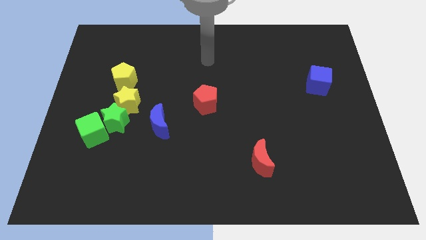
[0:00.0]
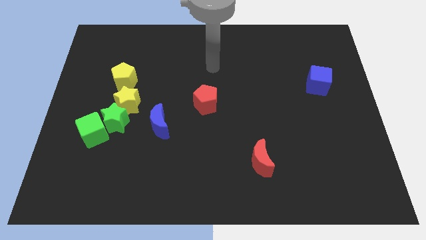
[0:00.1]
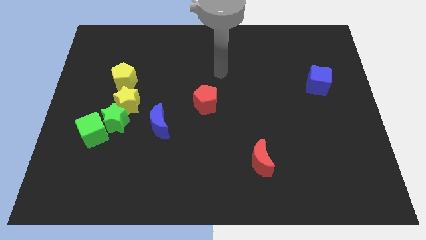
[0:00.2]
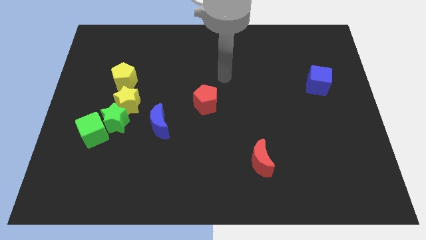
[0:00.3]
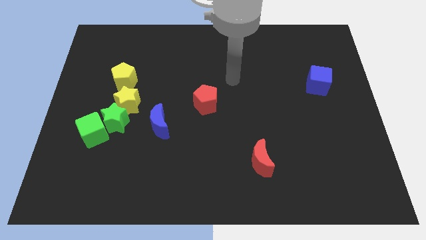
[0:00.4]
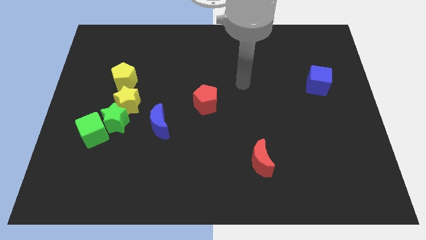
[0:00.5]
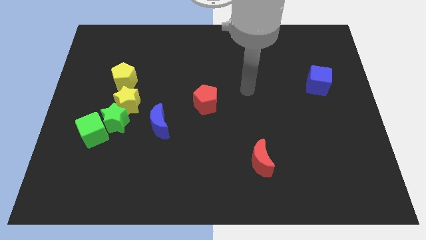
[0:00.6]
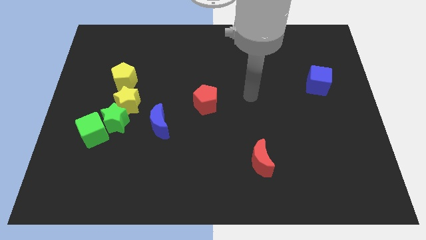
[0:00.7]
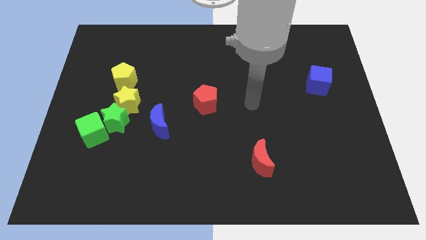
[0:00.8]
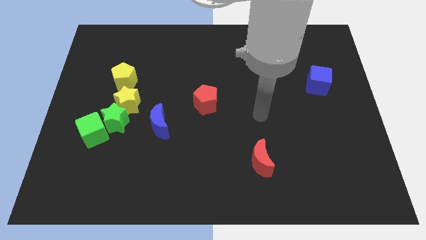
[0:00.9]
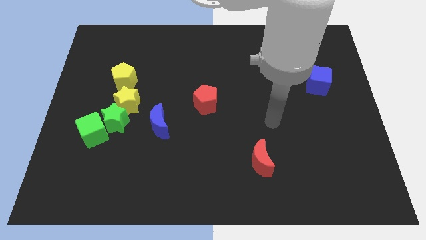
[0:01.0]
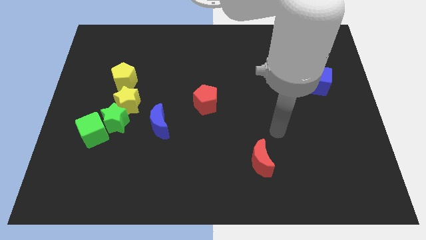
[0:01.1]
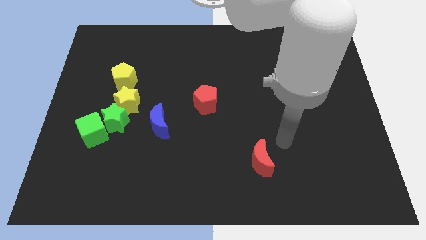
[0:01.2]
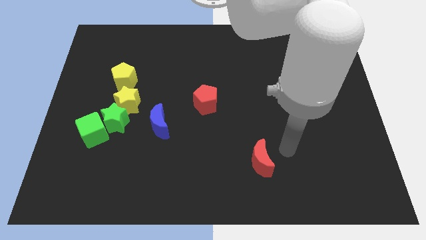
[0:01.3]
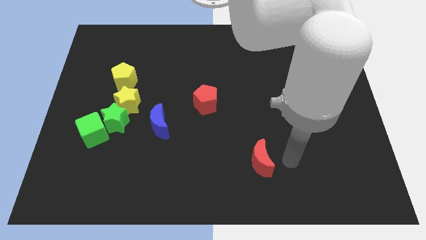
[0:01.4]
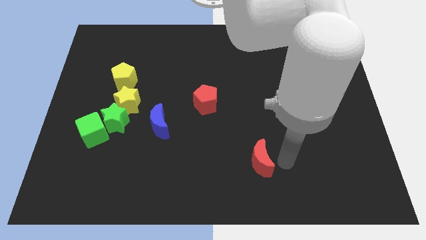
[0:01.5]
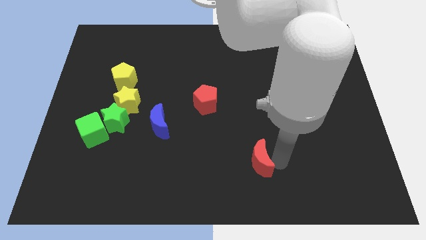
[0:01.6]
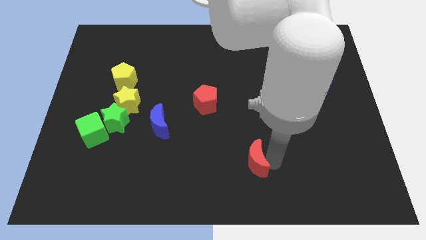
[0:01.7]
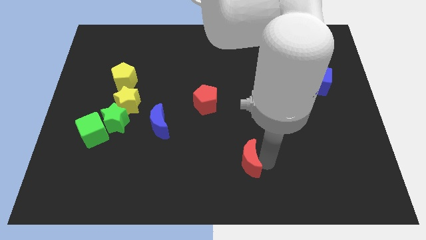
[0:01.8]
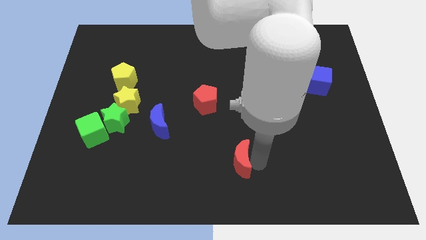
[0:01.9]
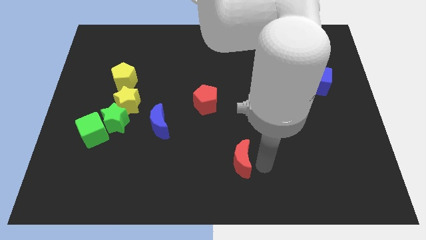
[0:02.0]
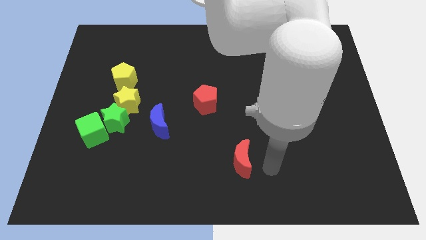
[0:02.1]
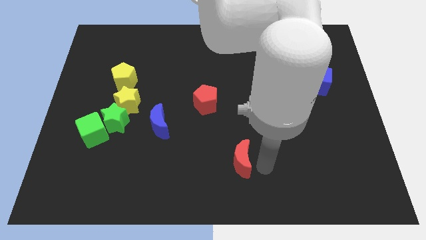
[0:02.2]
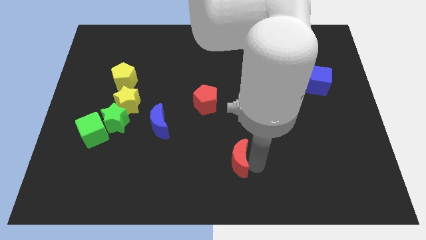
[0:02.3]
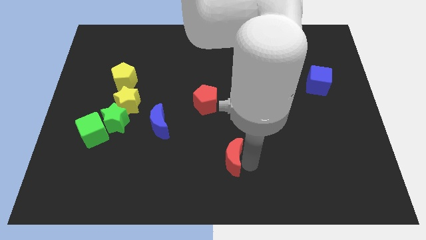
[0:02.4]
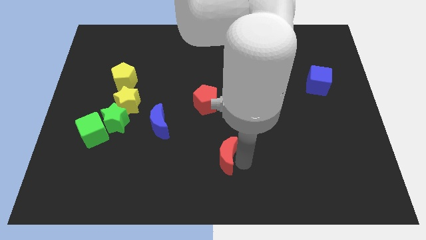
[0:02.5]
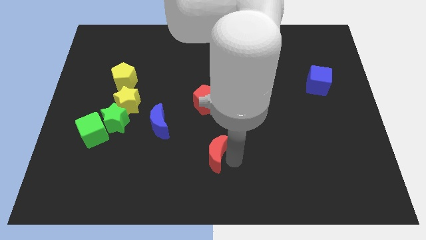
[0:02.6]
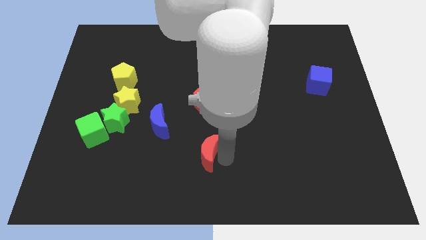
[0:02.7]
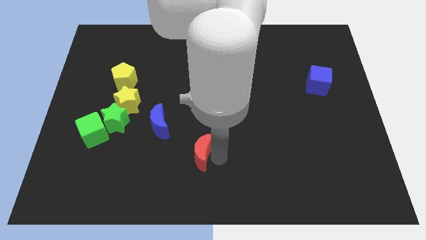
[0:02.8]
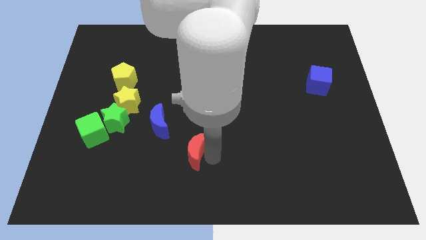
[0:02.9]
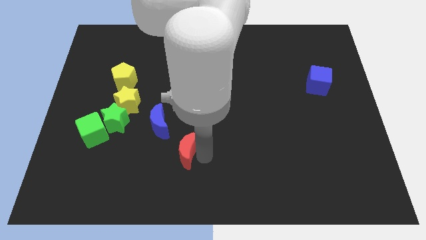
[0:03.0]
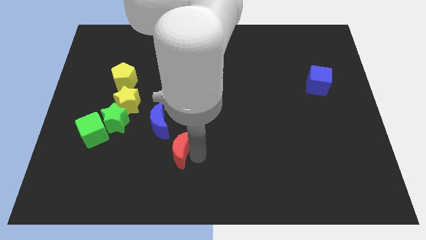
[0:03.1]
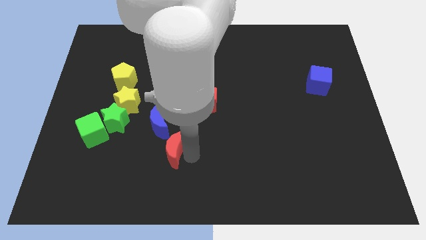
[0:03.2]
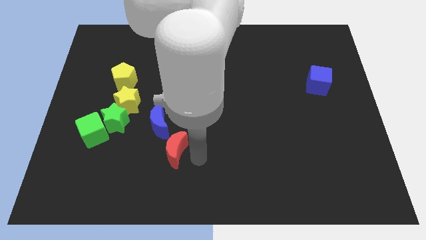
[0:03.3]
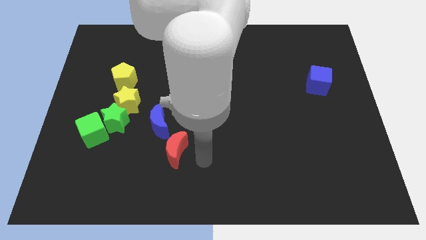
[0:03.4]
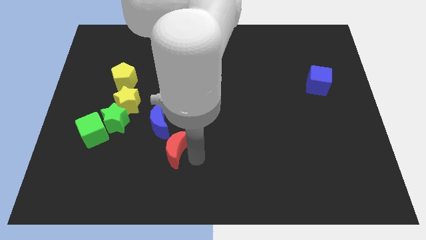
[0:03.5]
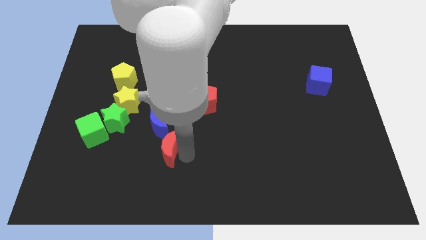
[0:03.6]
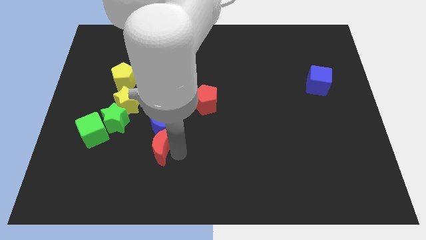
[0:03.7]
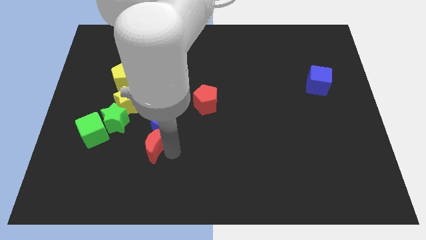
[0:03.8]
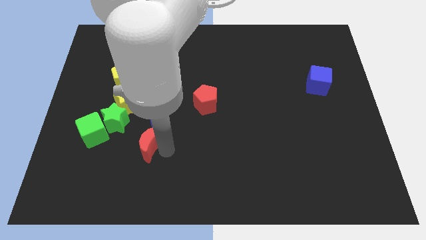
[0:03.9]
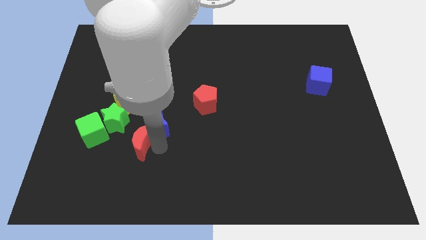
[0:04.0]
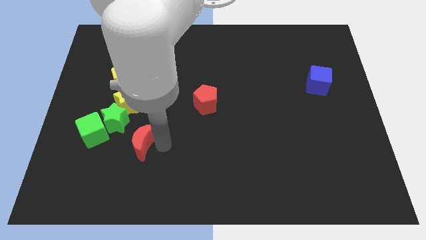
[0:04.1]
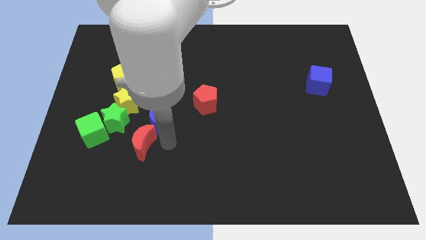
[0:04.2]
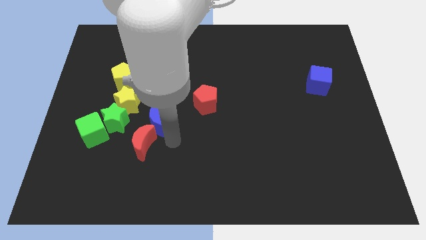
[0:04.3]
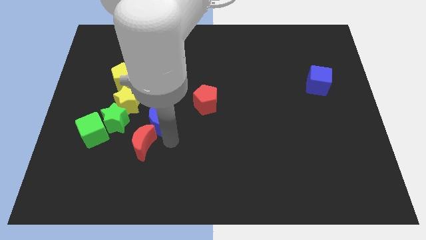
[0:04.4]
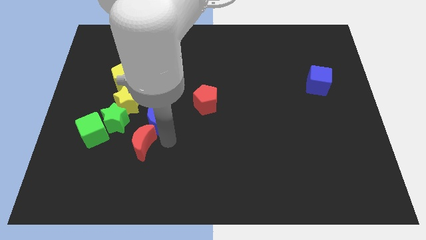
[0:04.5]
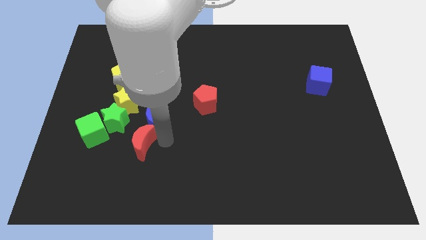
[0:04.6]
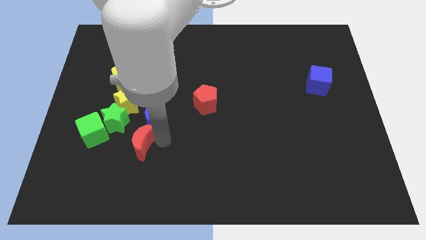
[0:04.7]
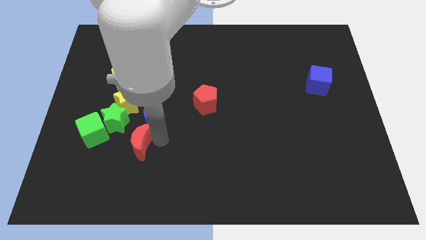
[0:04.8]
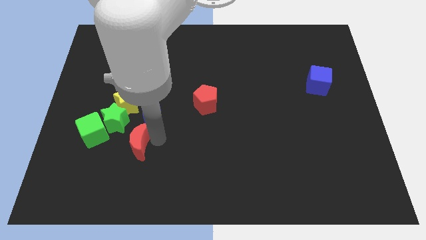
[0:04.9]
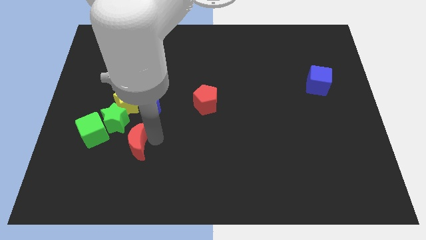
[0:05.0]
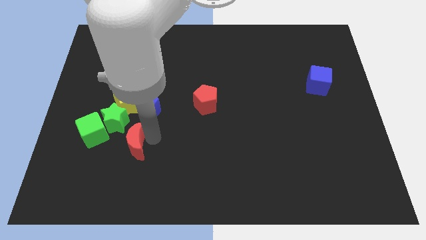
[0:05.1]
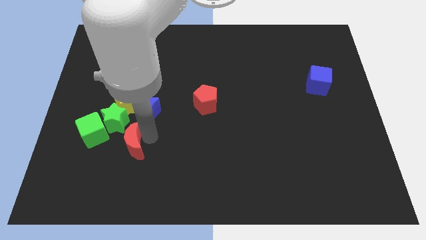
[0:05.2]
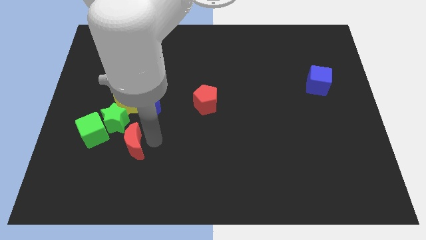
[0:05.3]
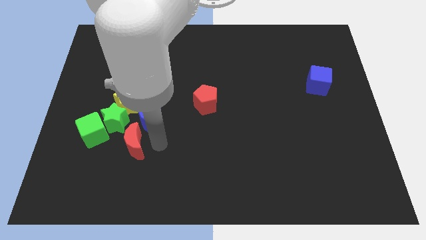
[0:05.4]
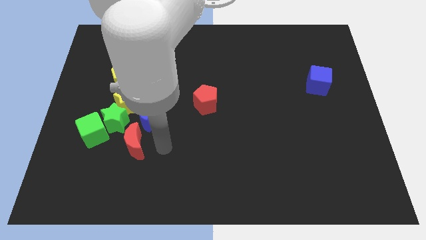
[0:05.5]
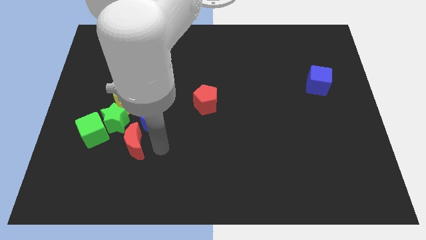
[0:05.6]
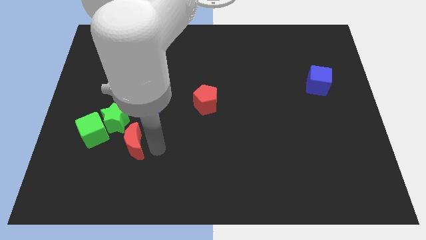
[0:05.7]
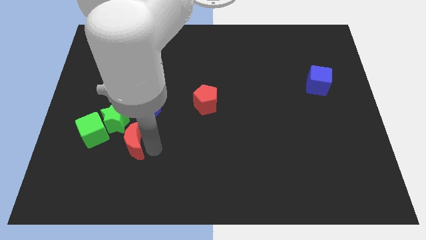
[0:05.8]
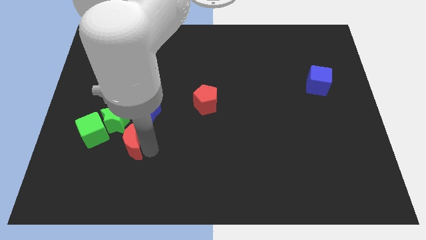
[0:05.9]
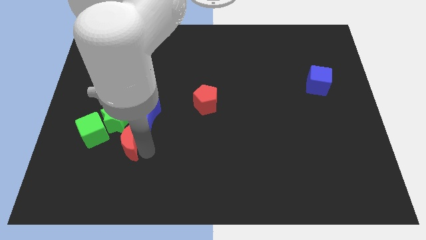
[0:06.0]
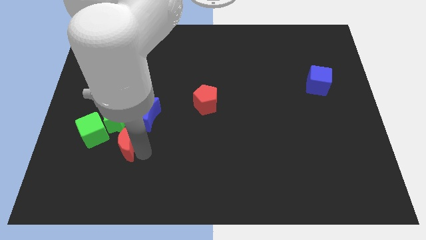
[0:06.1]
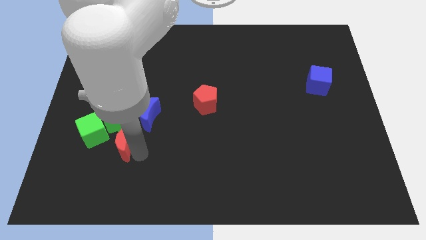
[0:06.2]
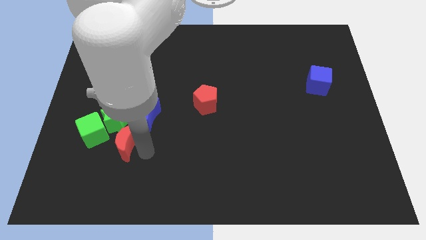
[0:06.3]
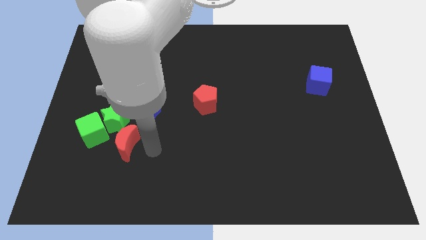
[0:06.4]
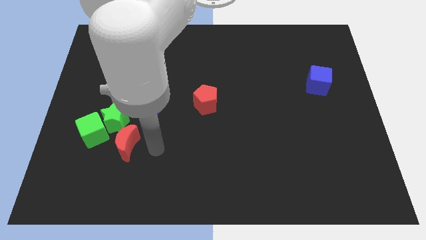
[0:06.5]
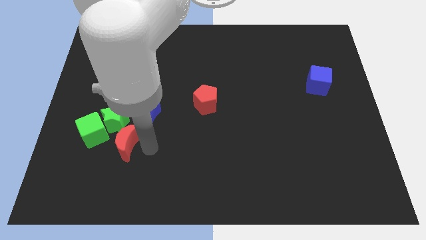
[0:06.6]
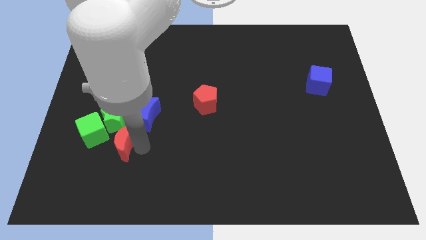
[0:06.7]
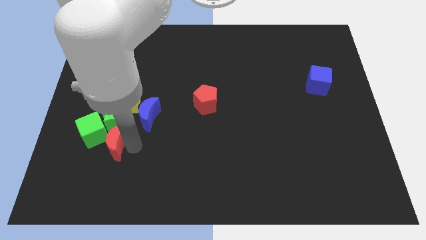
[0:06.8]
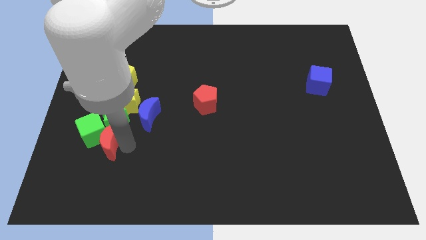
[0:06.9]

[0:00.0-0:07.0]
put the red moon close to the green cube

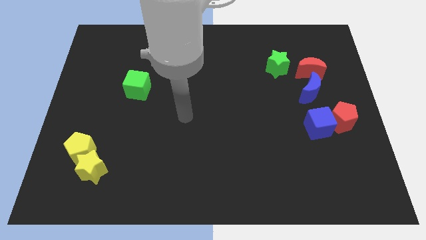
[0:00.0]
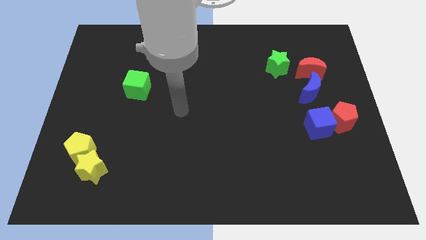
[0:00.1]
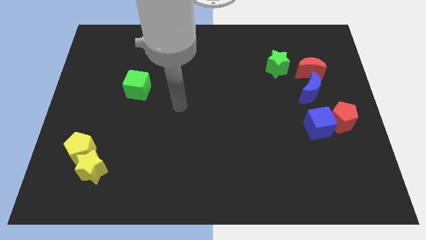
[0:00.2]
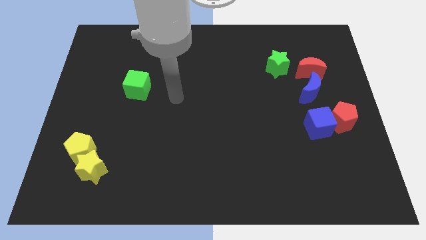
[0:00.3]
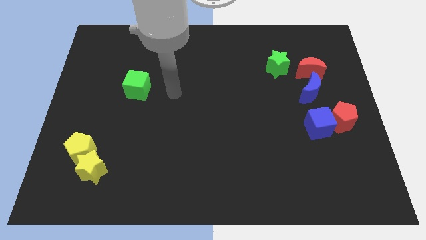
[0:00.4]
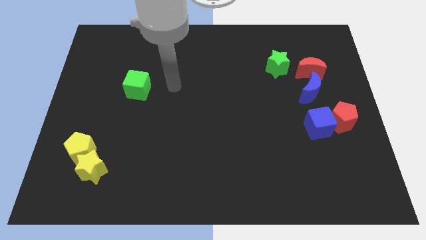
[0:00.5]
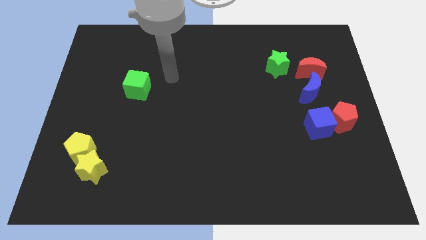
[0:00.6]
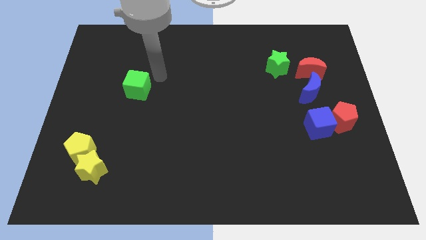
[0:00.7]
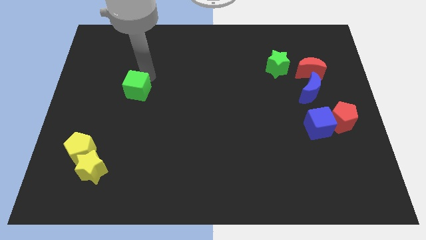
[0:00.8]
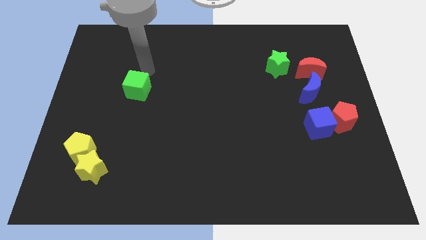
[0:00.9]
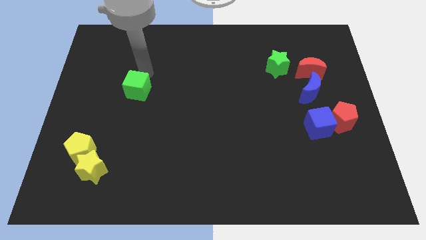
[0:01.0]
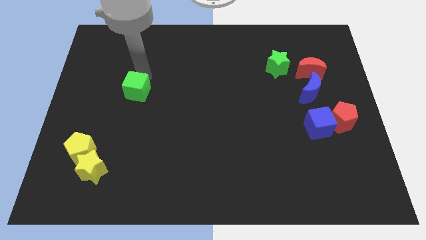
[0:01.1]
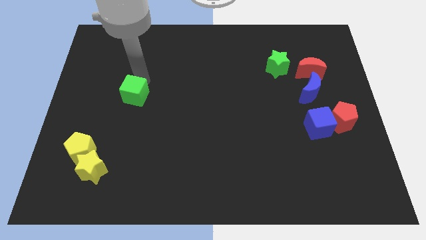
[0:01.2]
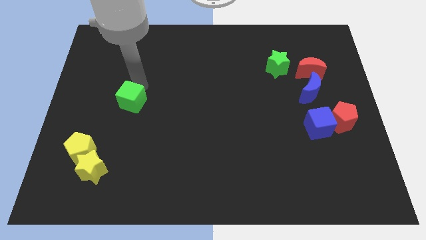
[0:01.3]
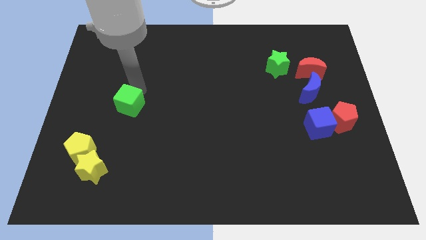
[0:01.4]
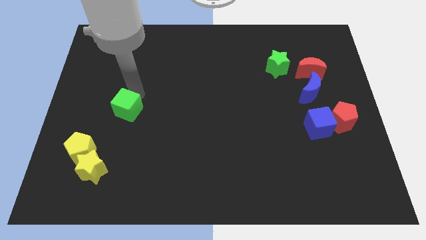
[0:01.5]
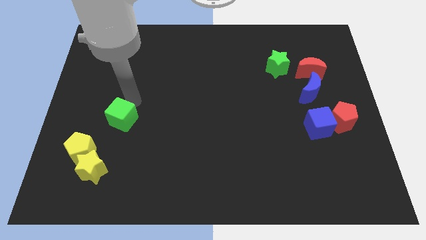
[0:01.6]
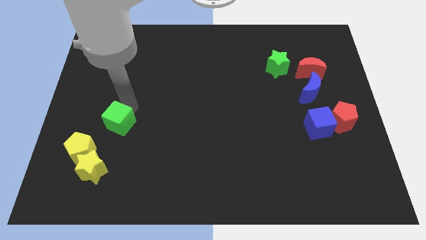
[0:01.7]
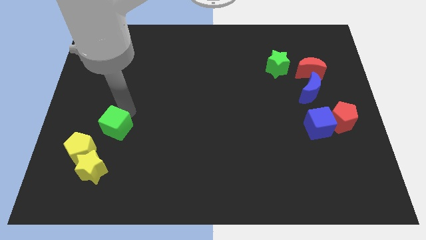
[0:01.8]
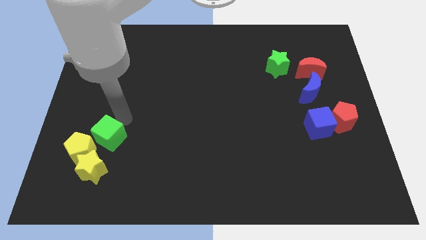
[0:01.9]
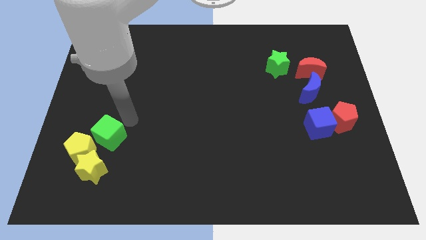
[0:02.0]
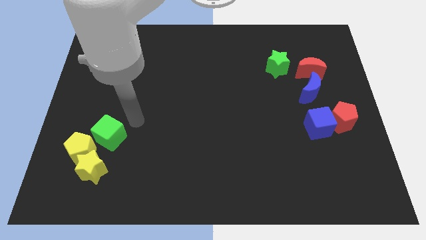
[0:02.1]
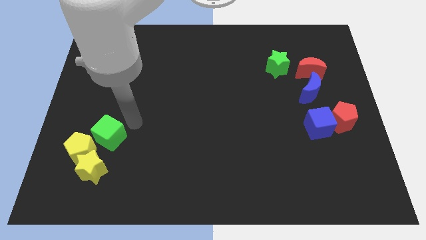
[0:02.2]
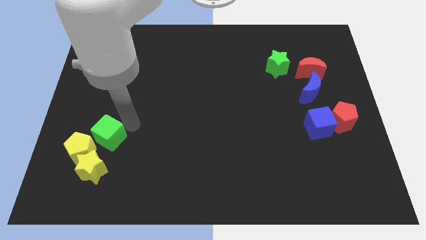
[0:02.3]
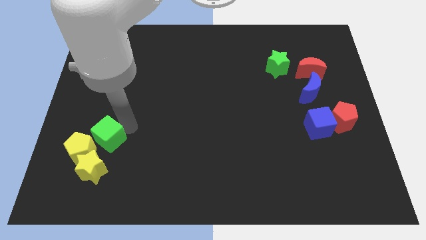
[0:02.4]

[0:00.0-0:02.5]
put the green cube close to the yellow pentagon
